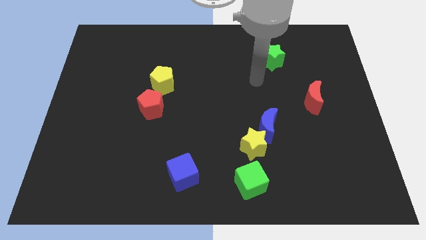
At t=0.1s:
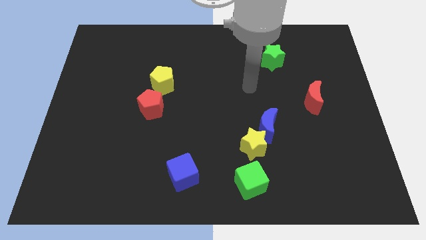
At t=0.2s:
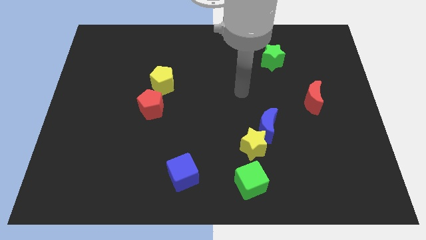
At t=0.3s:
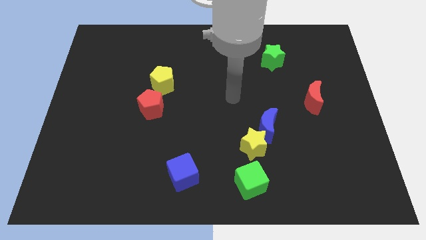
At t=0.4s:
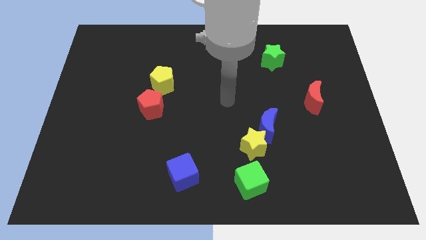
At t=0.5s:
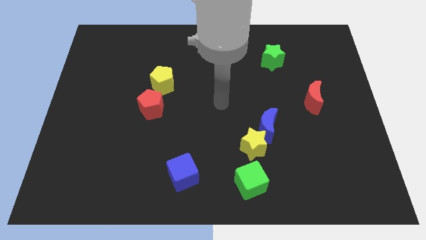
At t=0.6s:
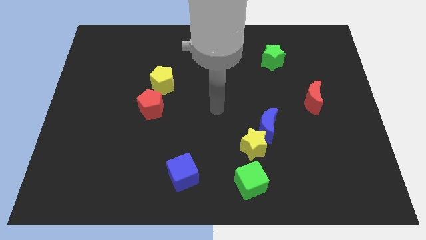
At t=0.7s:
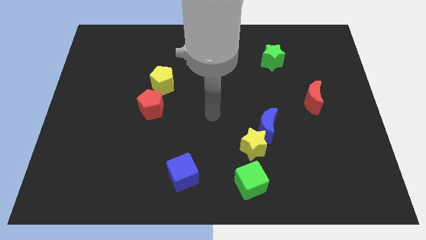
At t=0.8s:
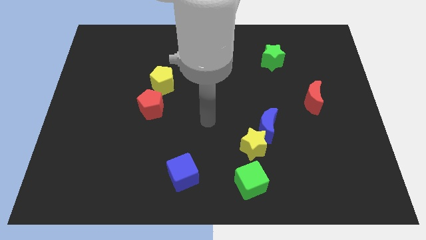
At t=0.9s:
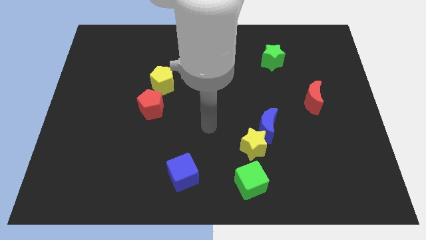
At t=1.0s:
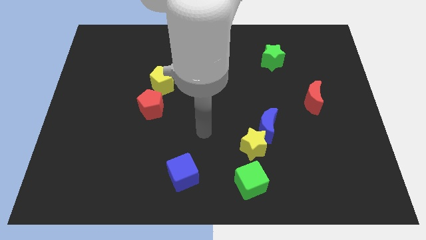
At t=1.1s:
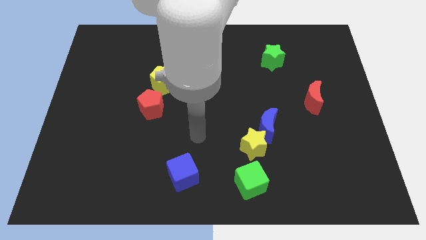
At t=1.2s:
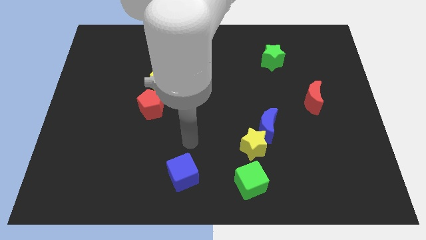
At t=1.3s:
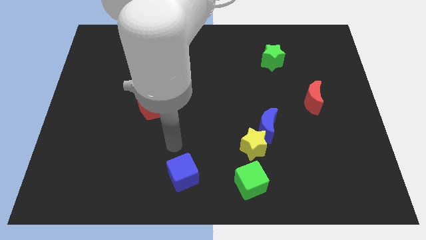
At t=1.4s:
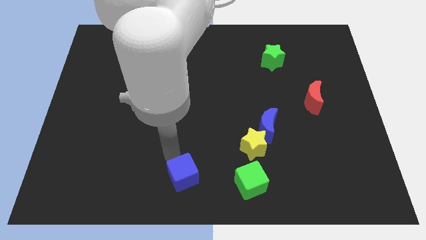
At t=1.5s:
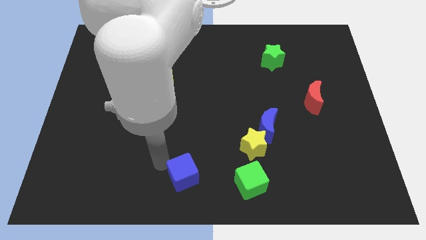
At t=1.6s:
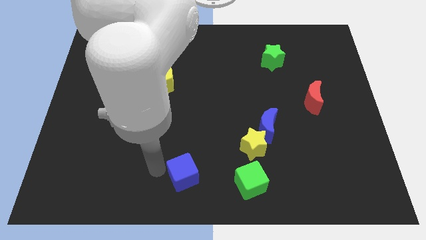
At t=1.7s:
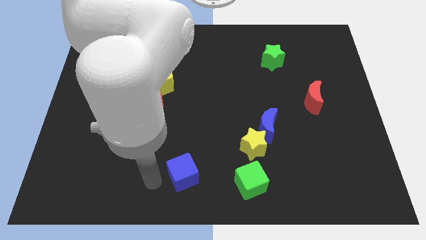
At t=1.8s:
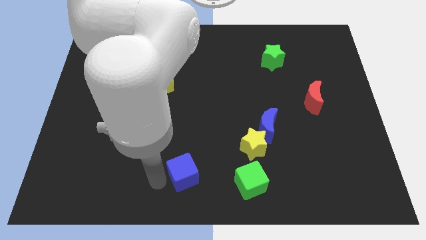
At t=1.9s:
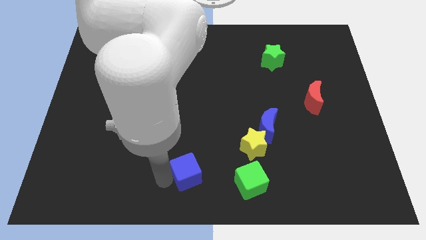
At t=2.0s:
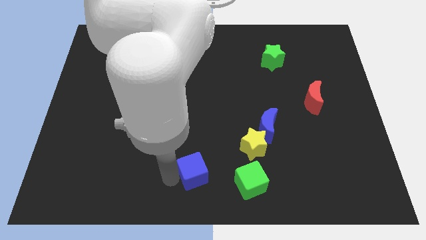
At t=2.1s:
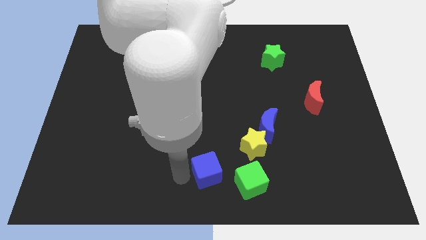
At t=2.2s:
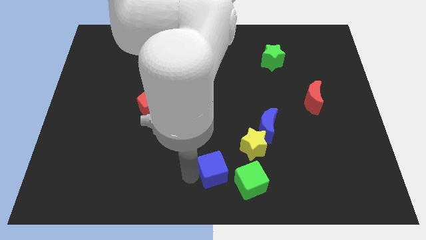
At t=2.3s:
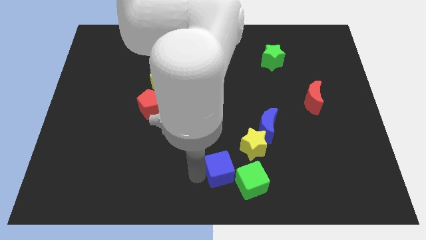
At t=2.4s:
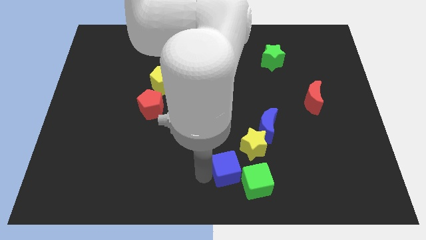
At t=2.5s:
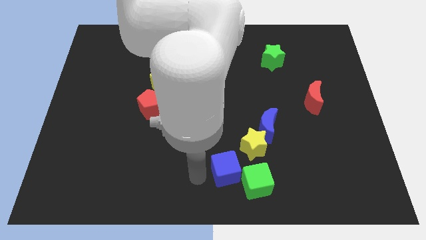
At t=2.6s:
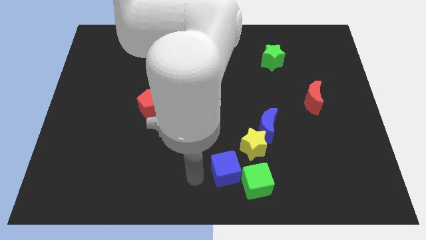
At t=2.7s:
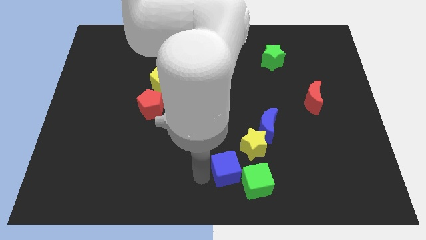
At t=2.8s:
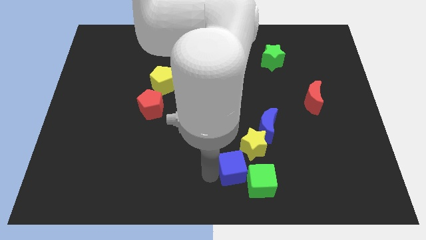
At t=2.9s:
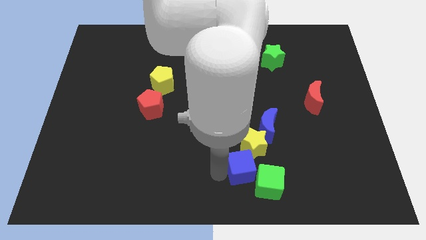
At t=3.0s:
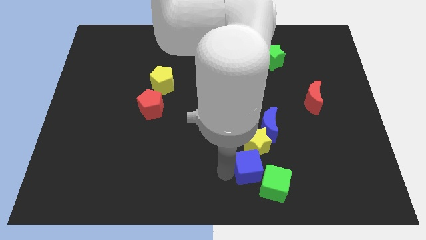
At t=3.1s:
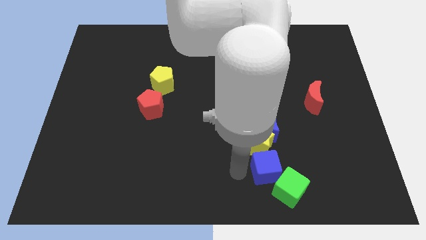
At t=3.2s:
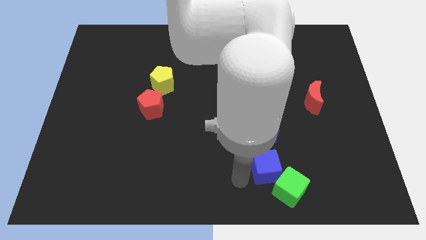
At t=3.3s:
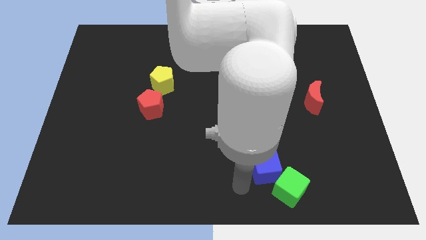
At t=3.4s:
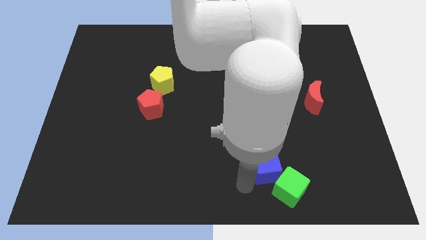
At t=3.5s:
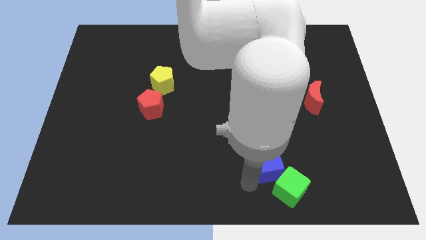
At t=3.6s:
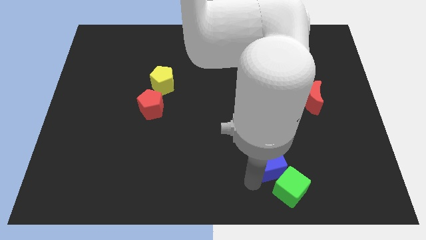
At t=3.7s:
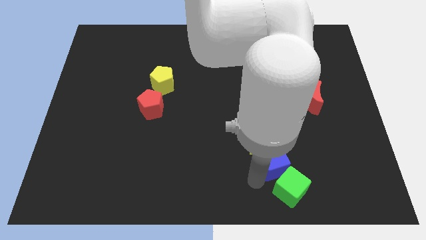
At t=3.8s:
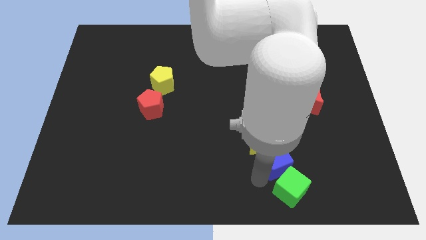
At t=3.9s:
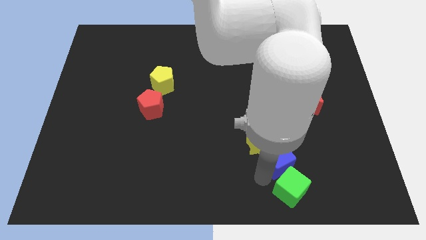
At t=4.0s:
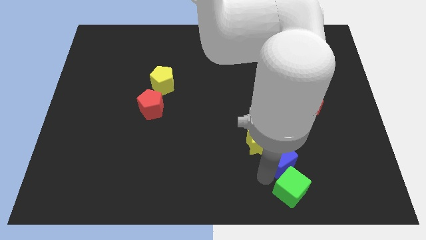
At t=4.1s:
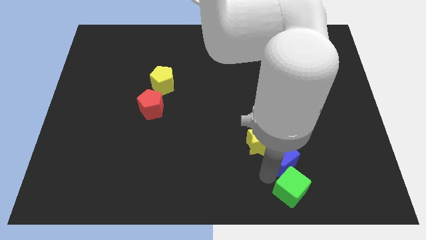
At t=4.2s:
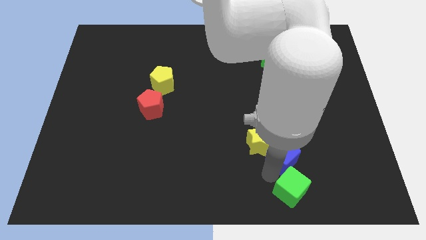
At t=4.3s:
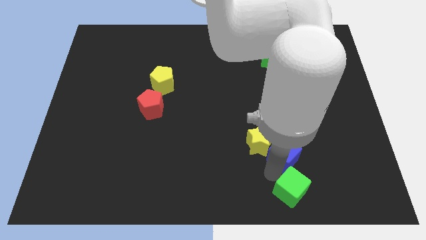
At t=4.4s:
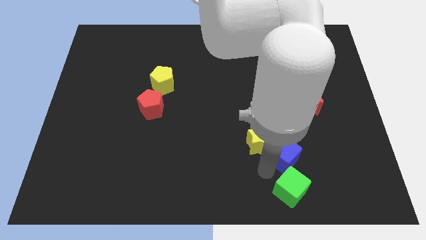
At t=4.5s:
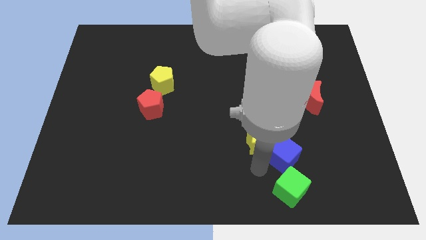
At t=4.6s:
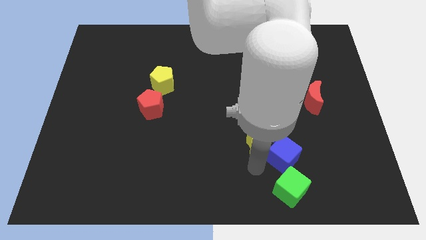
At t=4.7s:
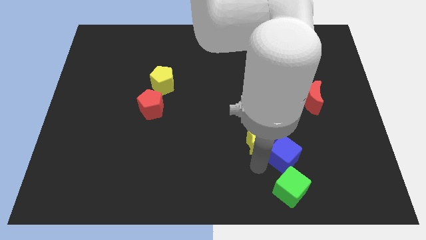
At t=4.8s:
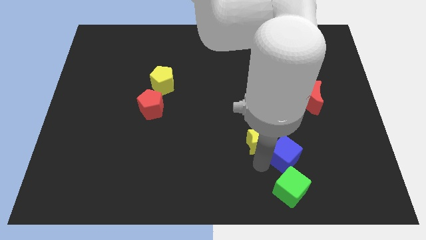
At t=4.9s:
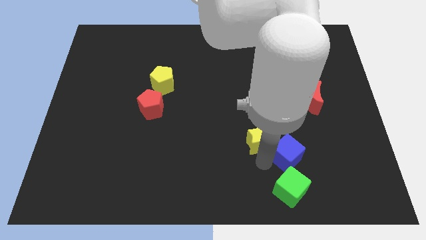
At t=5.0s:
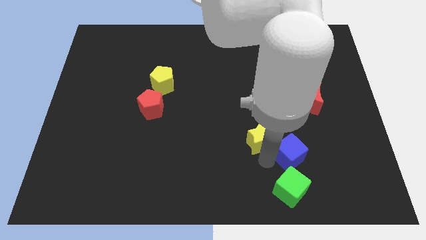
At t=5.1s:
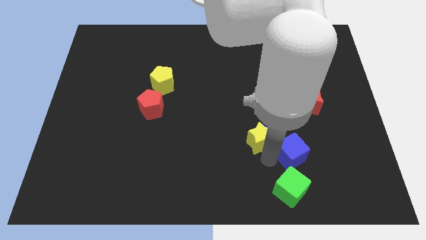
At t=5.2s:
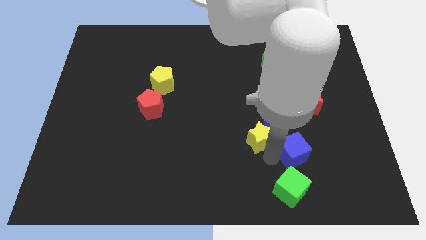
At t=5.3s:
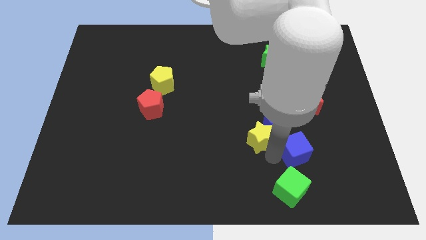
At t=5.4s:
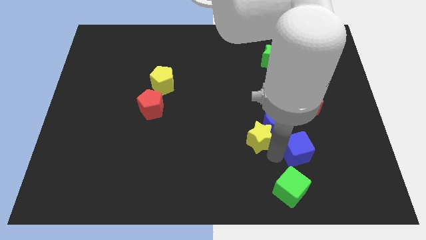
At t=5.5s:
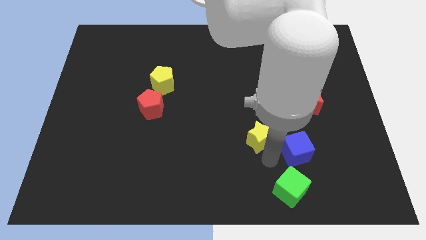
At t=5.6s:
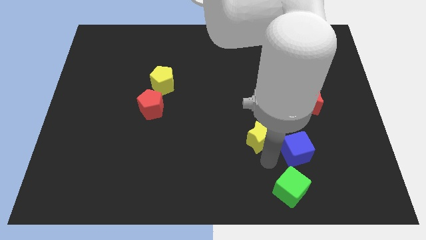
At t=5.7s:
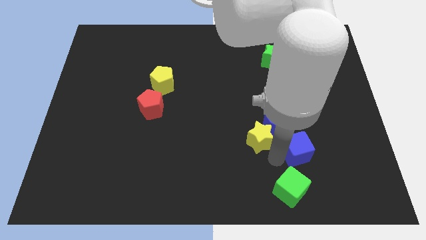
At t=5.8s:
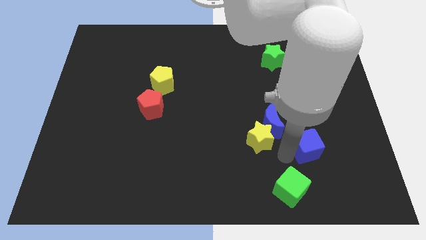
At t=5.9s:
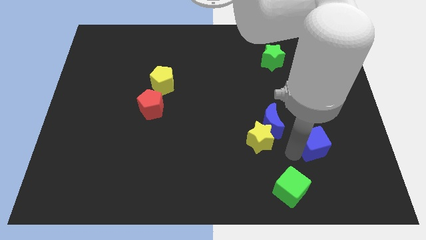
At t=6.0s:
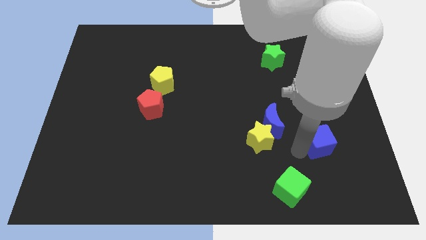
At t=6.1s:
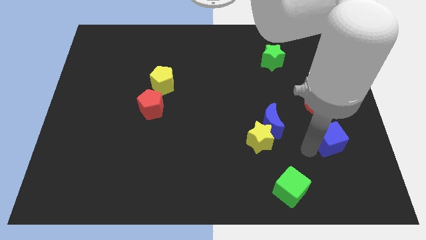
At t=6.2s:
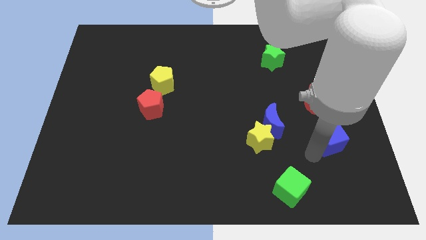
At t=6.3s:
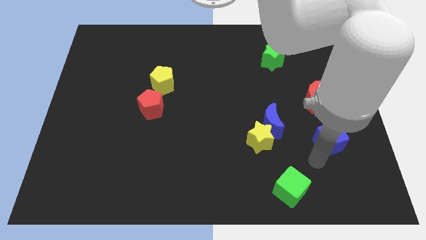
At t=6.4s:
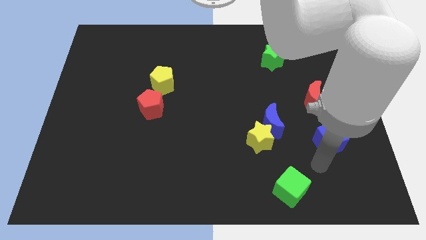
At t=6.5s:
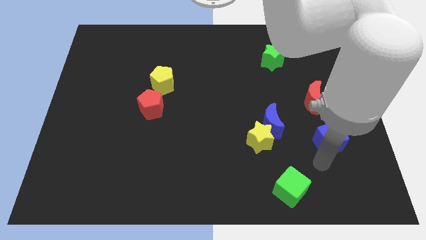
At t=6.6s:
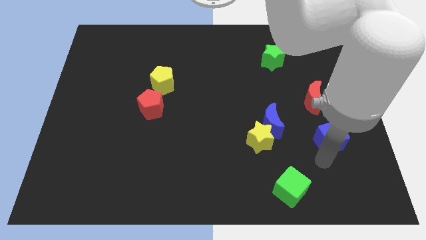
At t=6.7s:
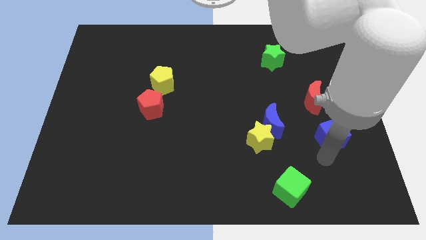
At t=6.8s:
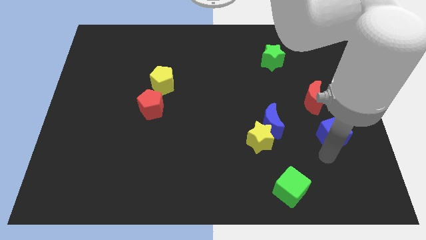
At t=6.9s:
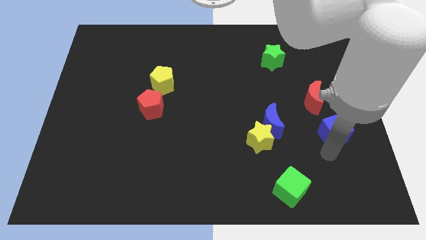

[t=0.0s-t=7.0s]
slide the blue cube to the bottom right side of the red moon

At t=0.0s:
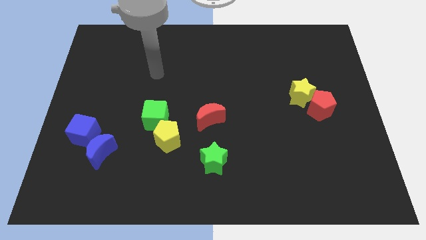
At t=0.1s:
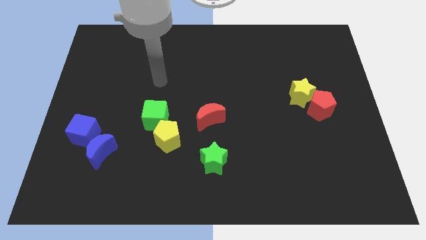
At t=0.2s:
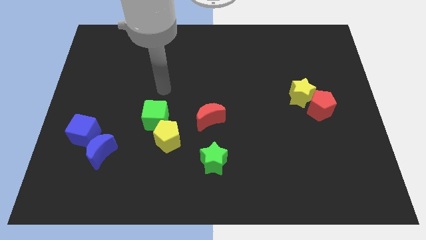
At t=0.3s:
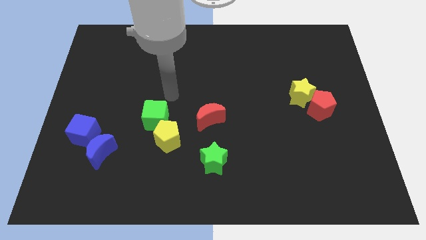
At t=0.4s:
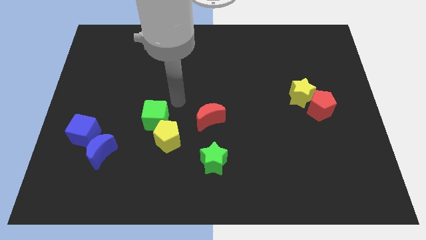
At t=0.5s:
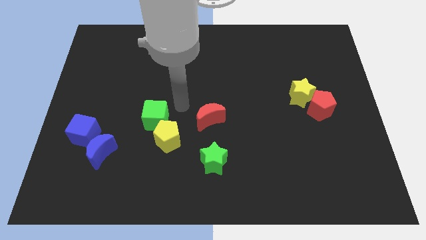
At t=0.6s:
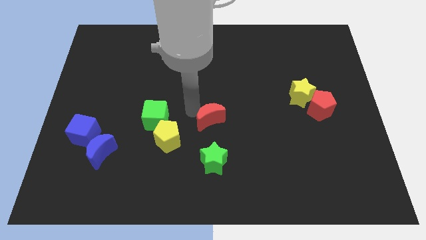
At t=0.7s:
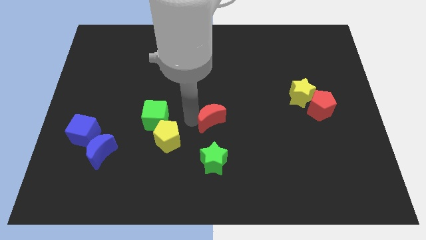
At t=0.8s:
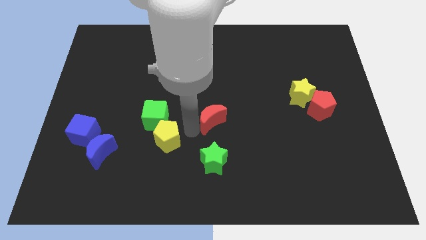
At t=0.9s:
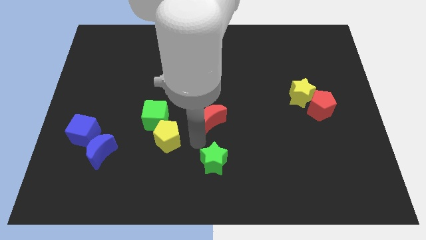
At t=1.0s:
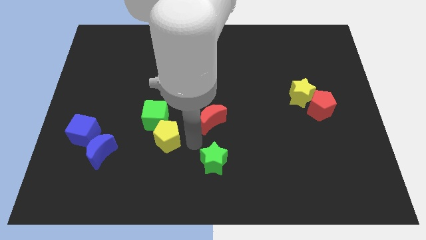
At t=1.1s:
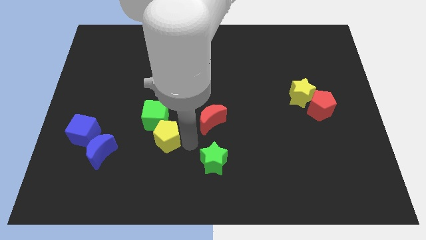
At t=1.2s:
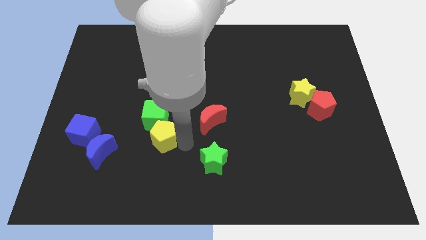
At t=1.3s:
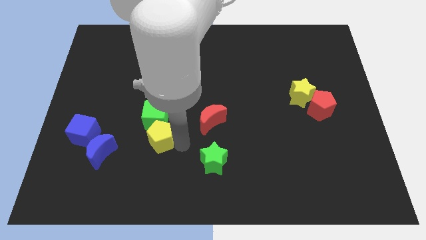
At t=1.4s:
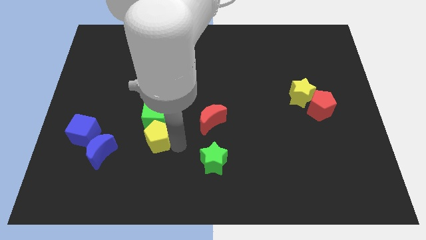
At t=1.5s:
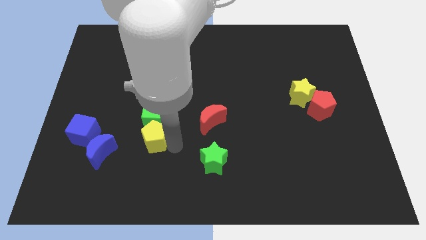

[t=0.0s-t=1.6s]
move the yellow pentagon right of the blue cube
